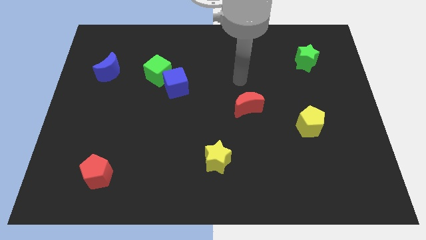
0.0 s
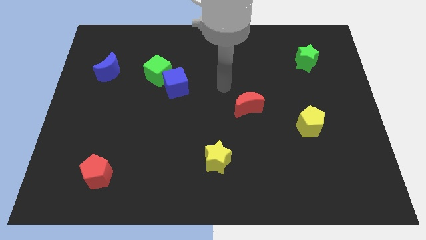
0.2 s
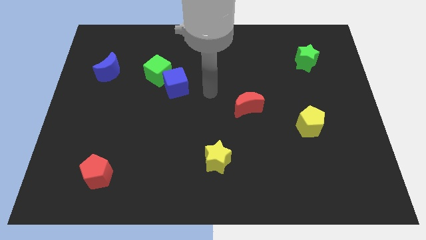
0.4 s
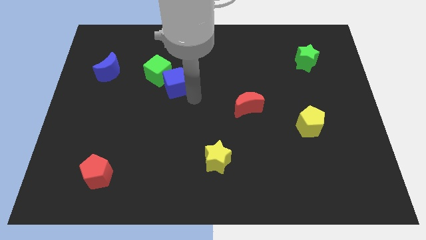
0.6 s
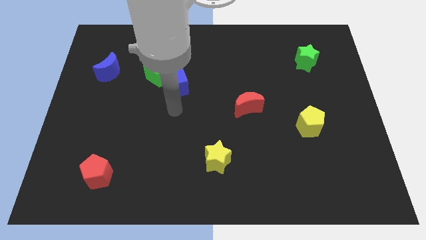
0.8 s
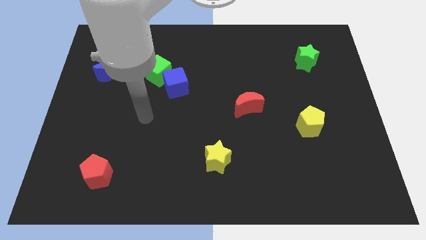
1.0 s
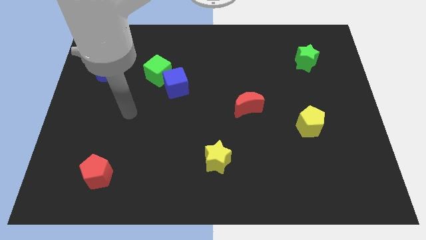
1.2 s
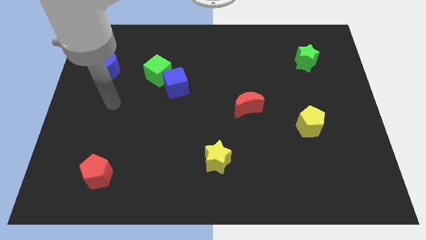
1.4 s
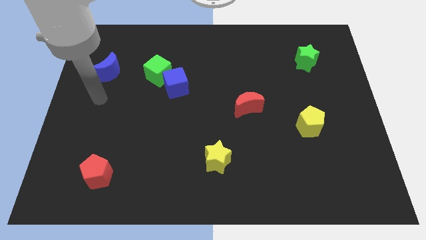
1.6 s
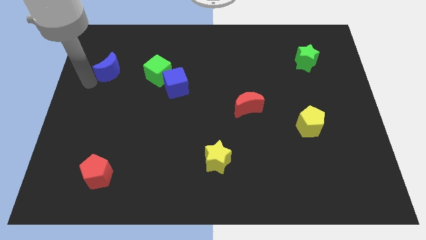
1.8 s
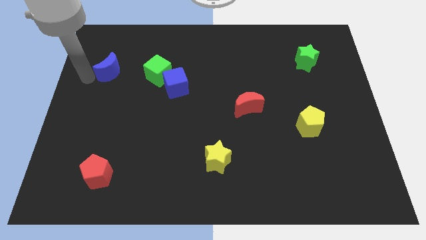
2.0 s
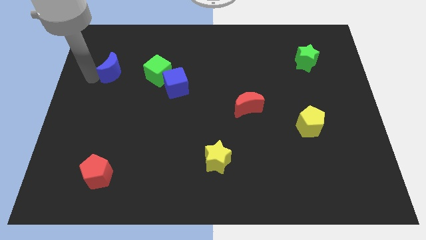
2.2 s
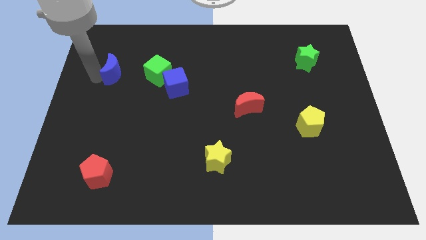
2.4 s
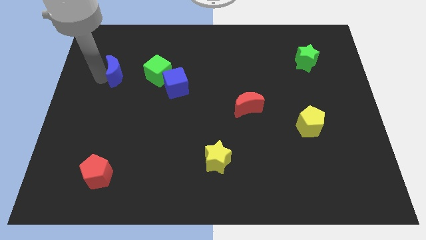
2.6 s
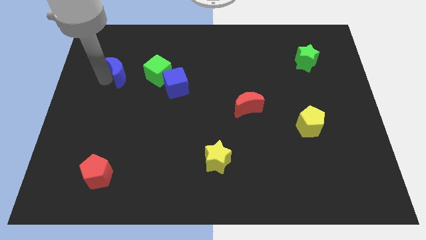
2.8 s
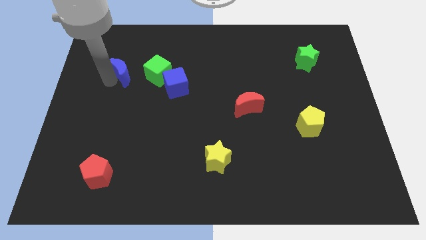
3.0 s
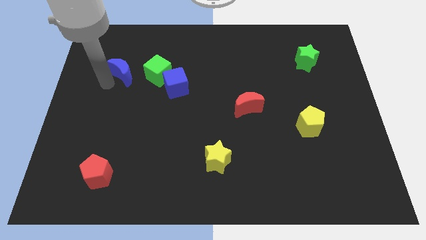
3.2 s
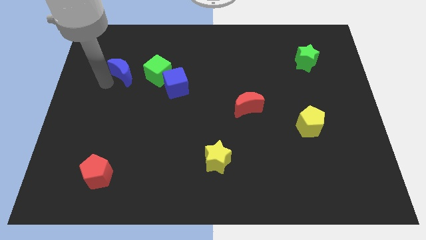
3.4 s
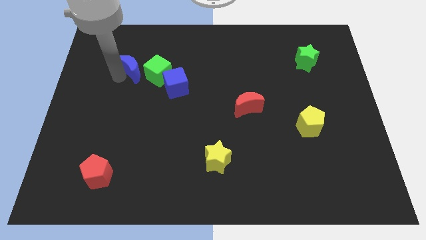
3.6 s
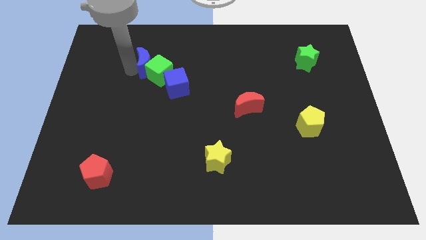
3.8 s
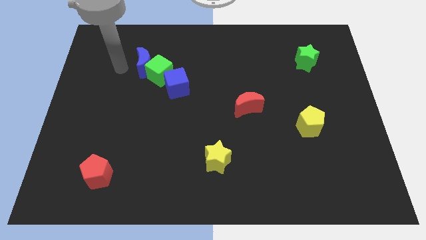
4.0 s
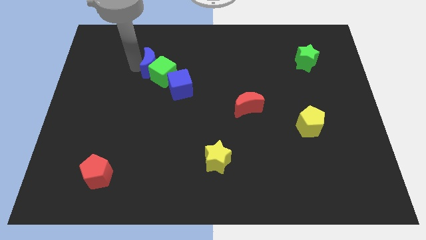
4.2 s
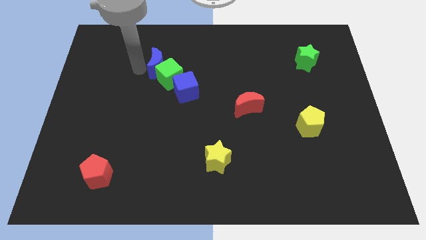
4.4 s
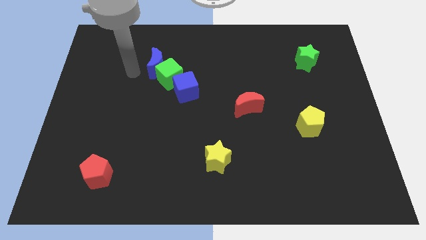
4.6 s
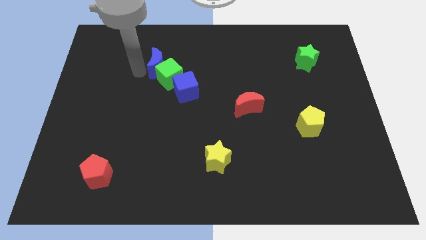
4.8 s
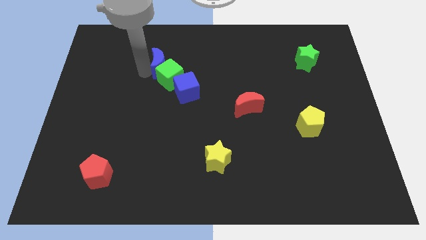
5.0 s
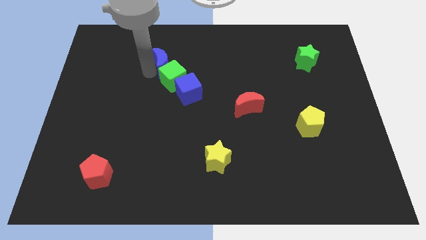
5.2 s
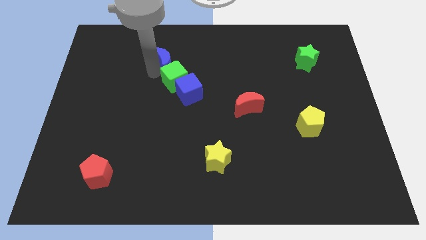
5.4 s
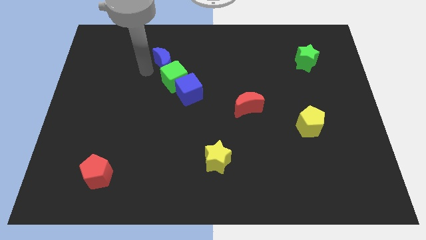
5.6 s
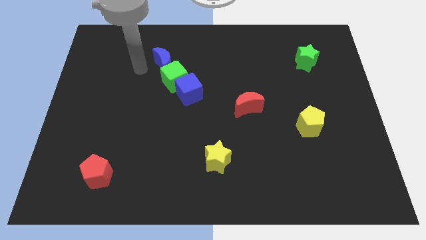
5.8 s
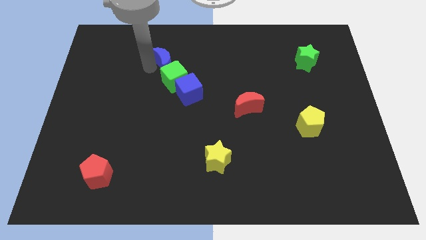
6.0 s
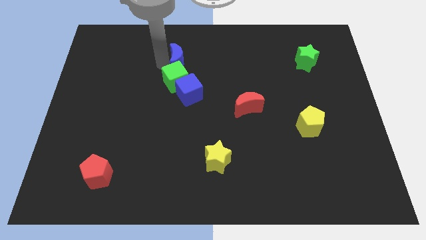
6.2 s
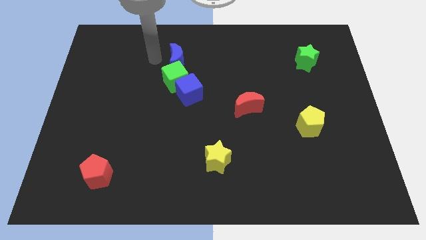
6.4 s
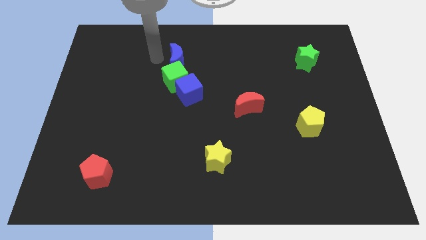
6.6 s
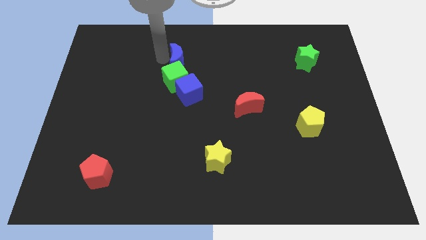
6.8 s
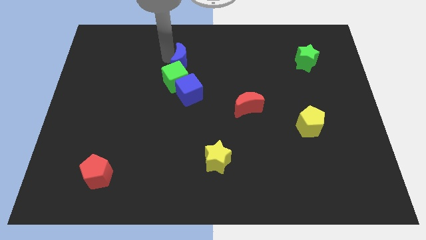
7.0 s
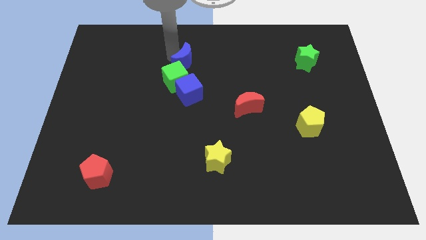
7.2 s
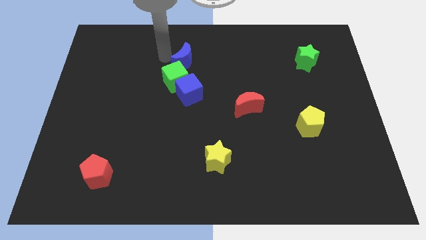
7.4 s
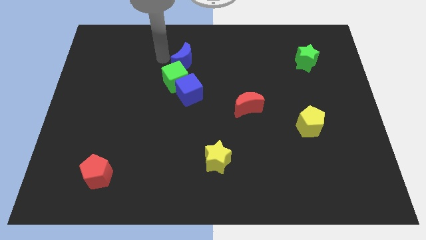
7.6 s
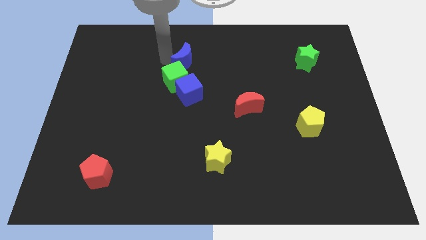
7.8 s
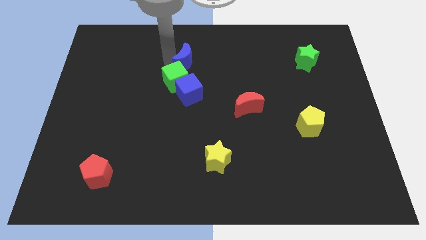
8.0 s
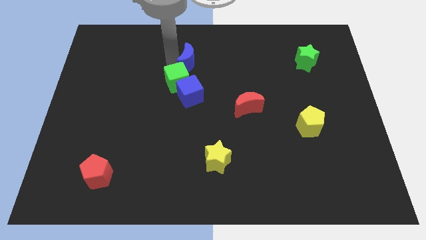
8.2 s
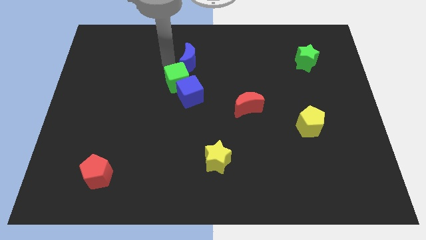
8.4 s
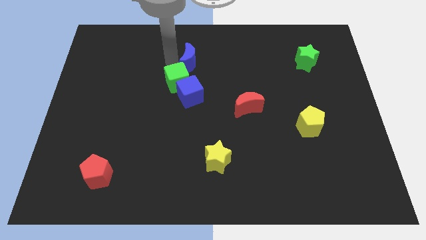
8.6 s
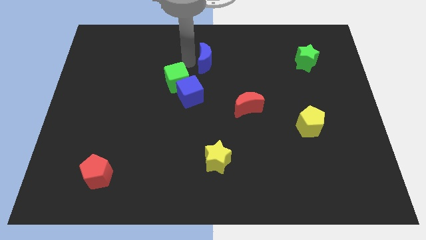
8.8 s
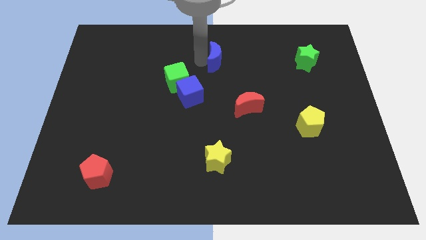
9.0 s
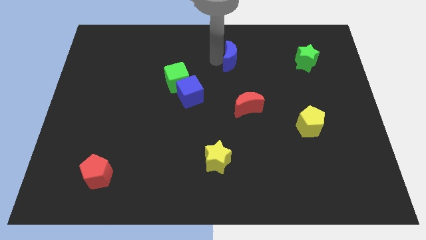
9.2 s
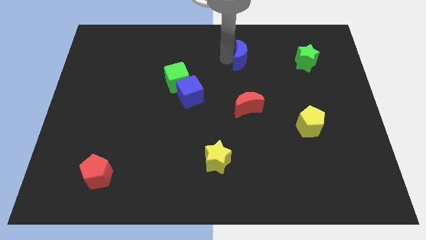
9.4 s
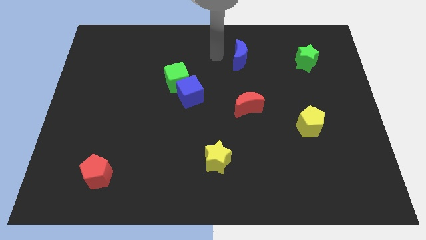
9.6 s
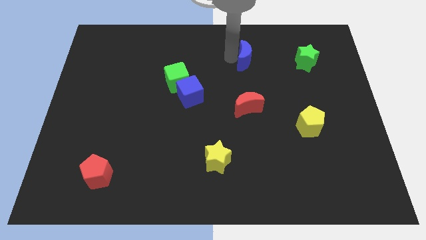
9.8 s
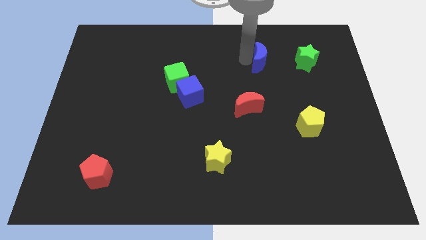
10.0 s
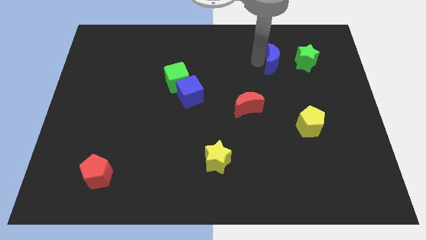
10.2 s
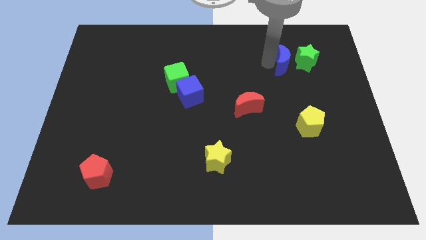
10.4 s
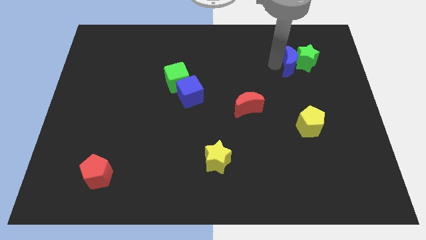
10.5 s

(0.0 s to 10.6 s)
push the blue moon next to the green star

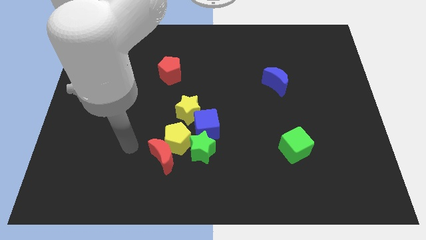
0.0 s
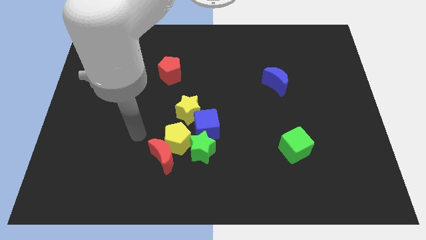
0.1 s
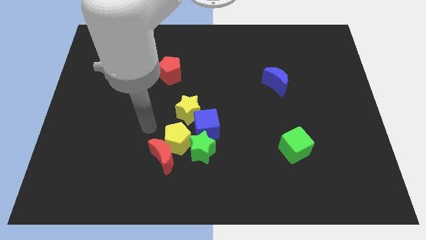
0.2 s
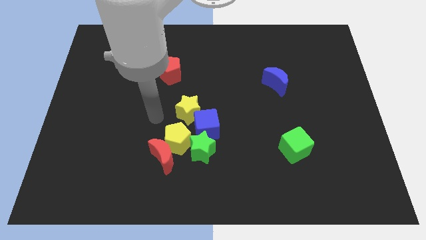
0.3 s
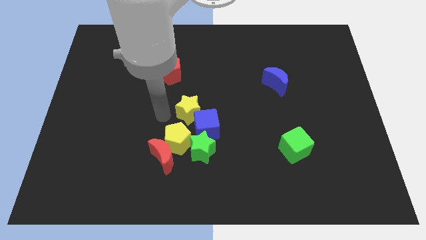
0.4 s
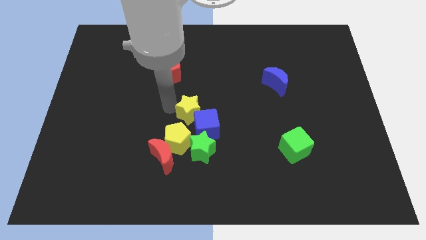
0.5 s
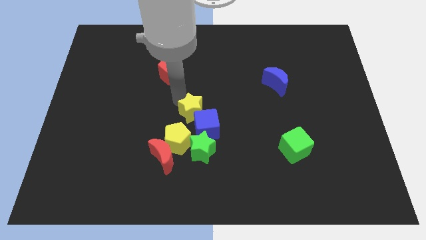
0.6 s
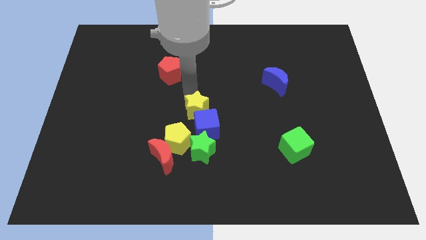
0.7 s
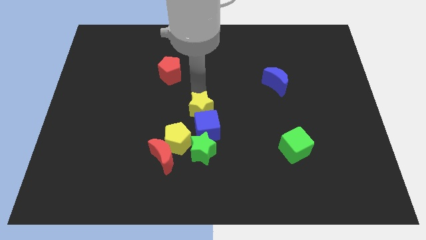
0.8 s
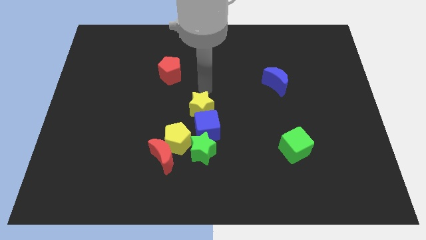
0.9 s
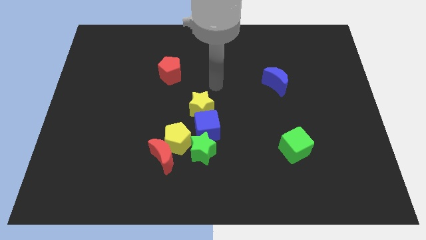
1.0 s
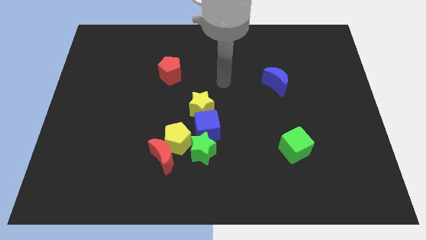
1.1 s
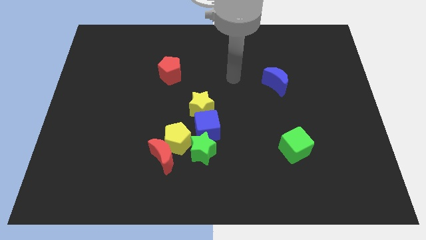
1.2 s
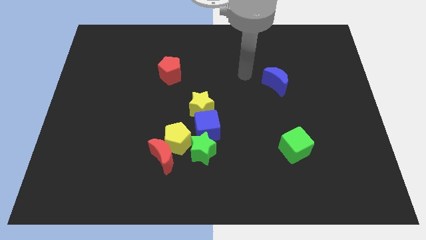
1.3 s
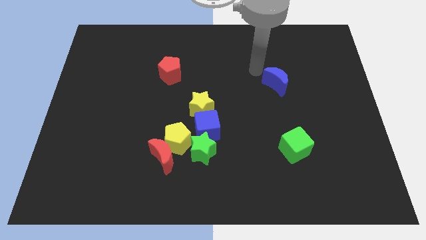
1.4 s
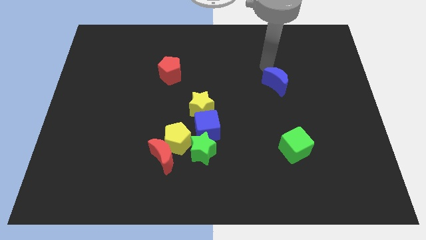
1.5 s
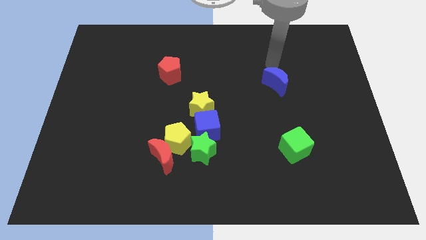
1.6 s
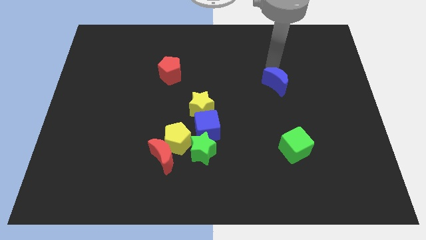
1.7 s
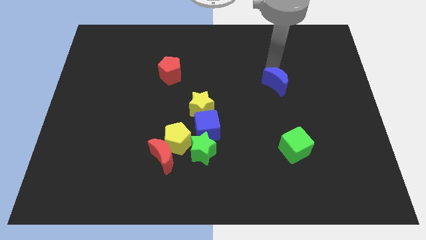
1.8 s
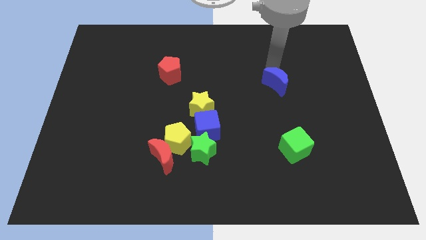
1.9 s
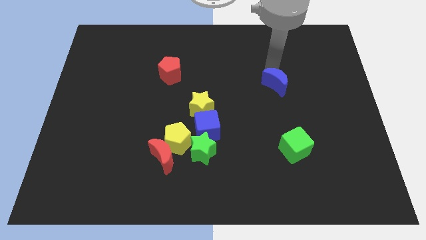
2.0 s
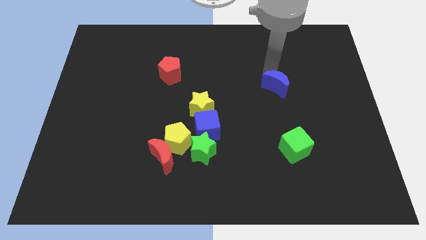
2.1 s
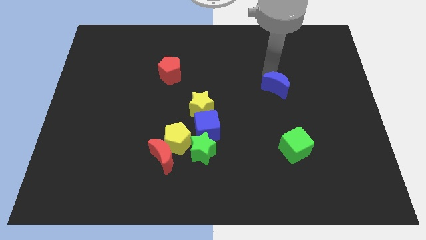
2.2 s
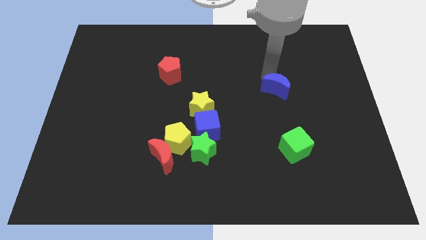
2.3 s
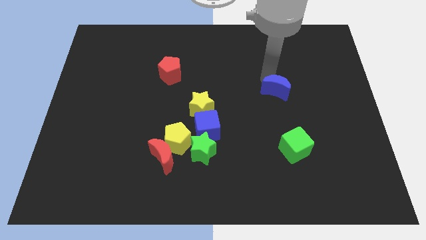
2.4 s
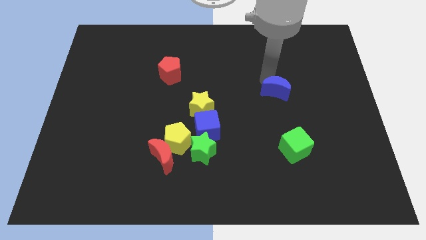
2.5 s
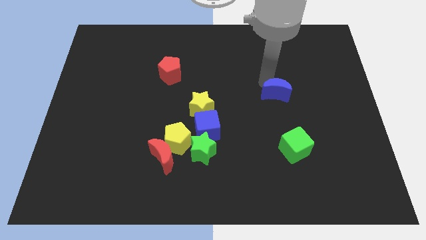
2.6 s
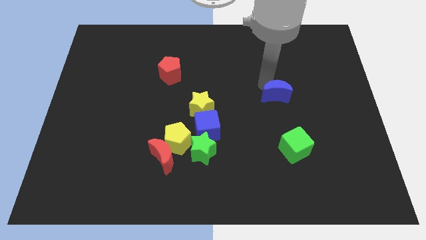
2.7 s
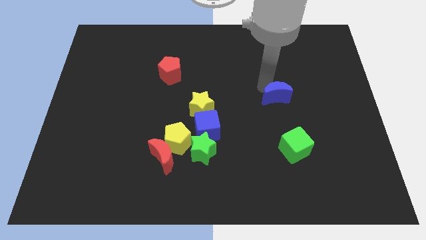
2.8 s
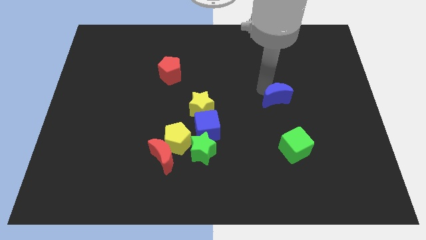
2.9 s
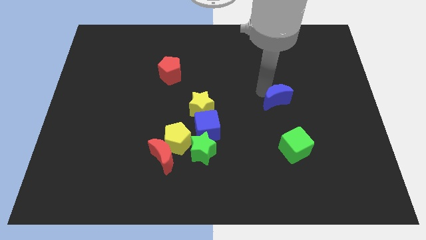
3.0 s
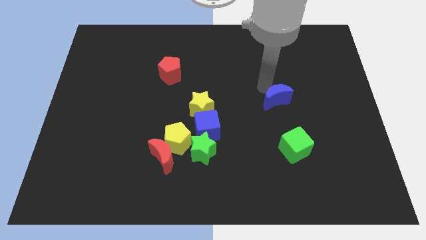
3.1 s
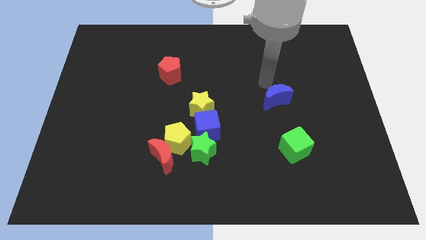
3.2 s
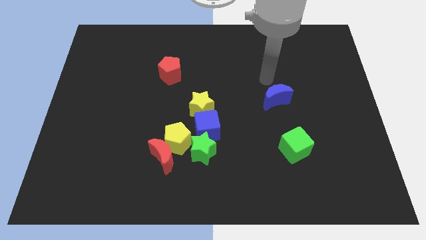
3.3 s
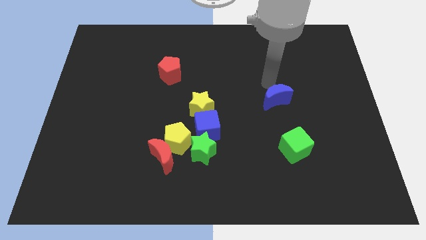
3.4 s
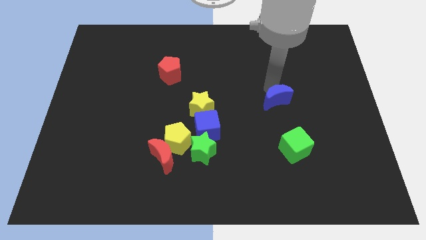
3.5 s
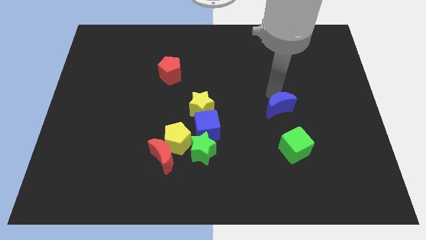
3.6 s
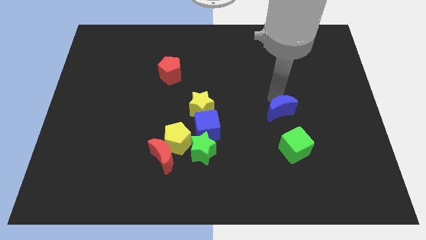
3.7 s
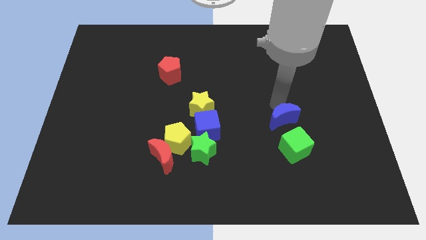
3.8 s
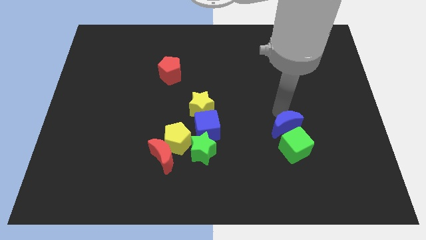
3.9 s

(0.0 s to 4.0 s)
push the blue moon to the green cube
